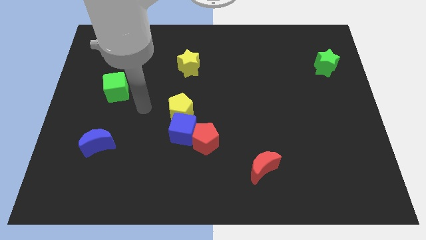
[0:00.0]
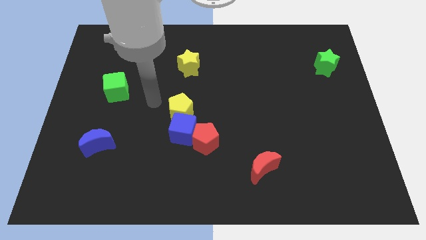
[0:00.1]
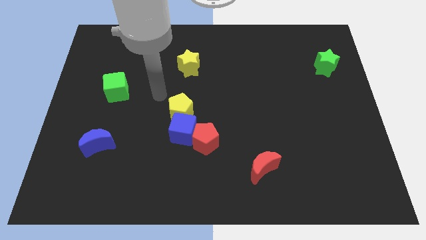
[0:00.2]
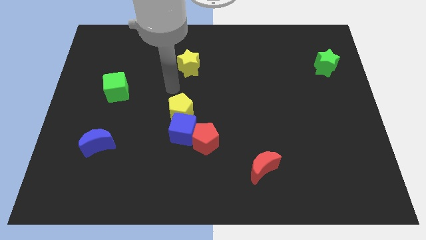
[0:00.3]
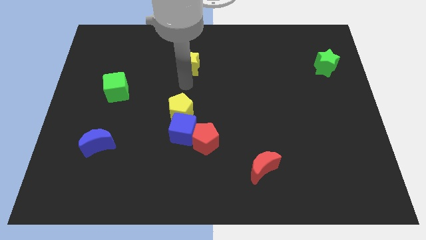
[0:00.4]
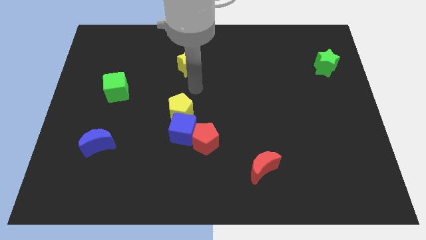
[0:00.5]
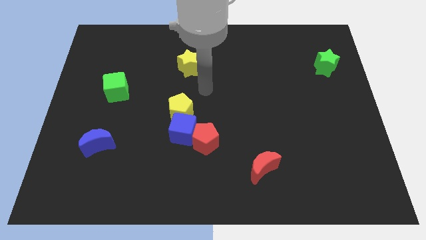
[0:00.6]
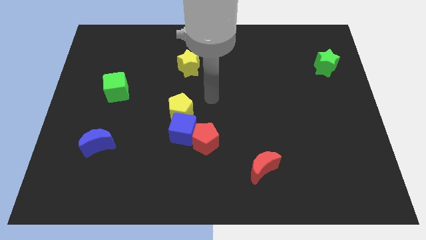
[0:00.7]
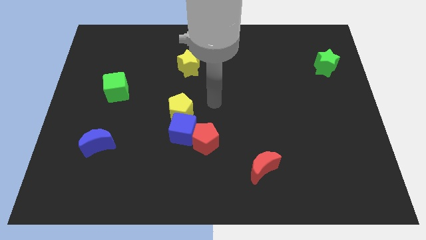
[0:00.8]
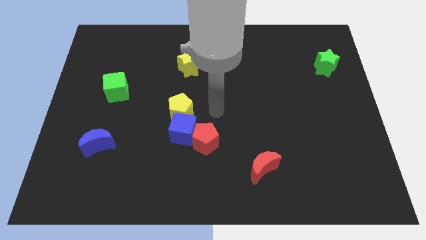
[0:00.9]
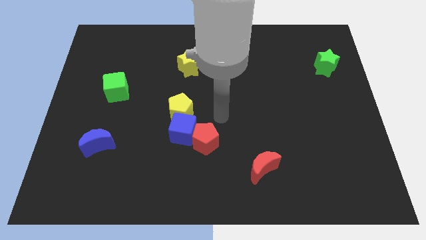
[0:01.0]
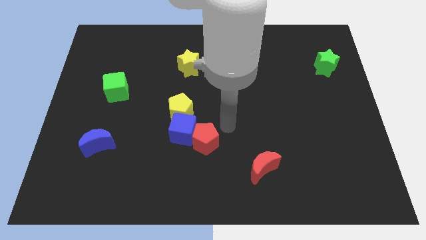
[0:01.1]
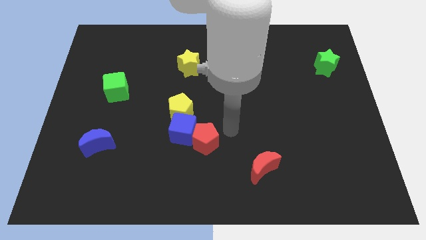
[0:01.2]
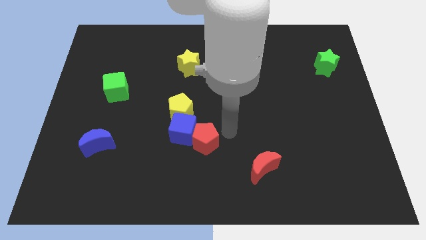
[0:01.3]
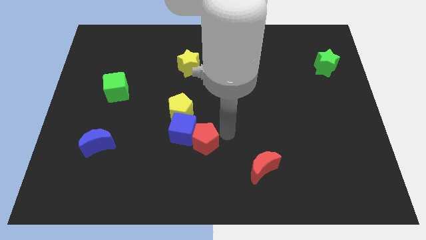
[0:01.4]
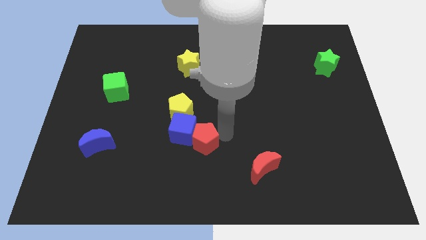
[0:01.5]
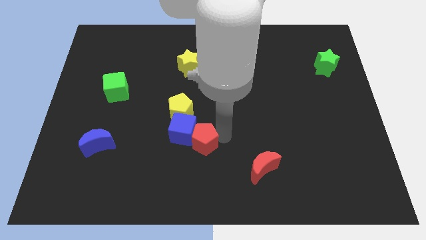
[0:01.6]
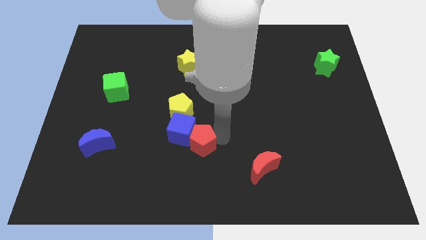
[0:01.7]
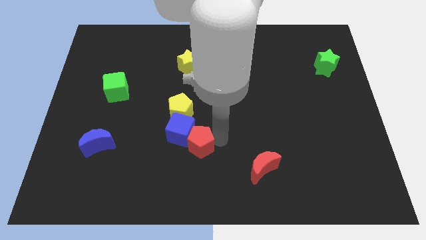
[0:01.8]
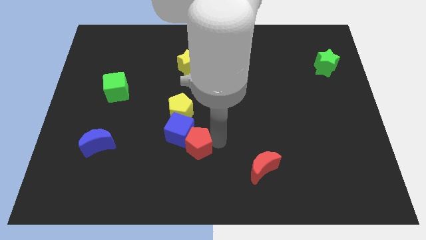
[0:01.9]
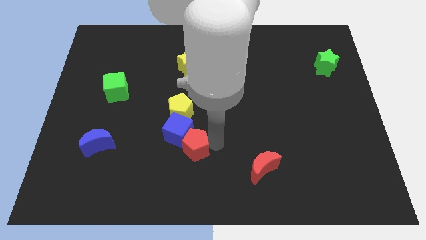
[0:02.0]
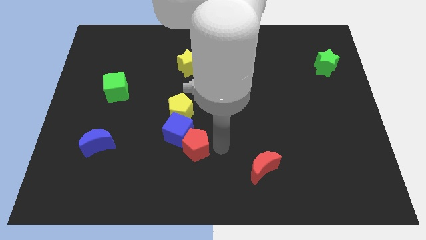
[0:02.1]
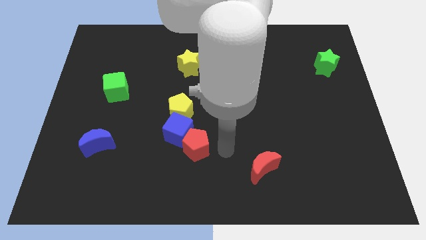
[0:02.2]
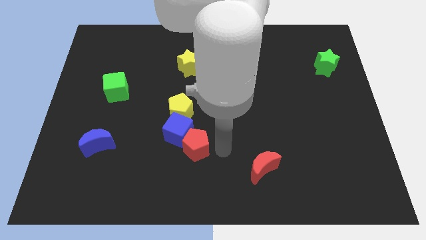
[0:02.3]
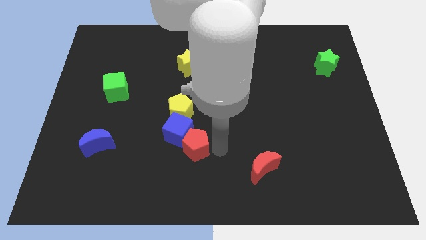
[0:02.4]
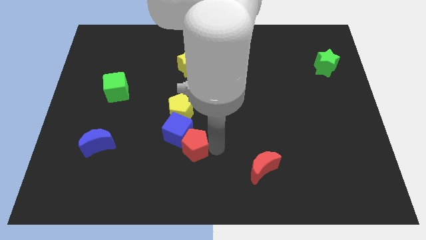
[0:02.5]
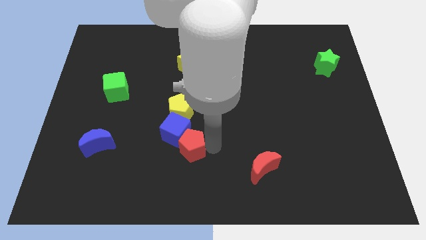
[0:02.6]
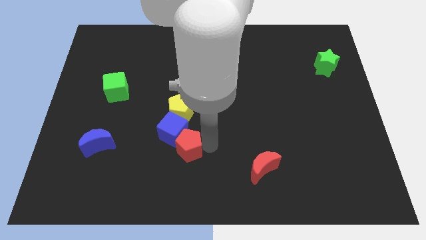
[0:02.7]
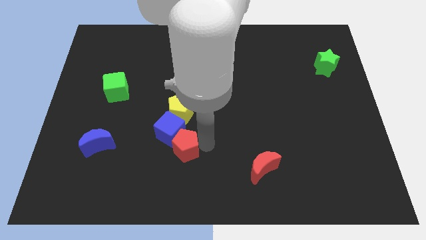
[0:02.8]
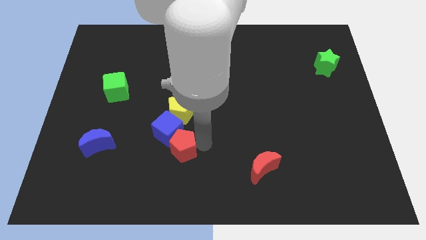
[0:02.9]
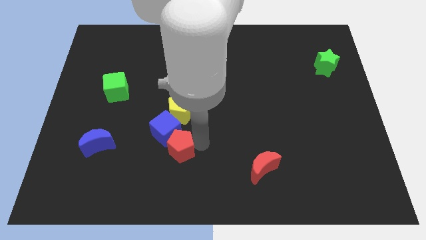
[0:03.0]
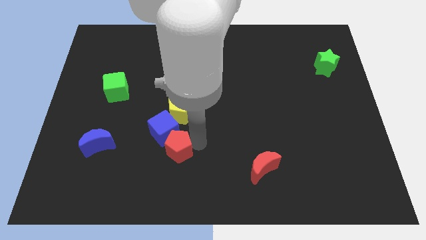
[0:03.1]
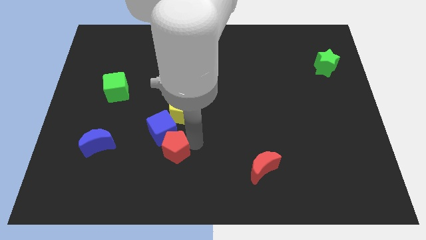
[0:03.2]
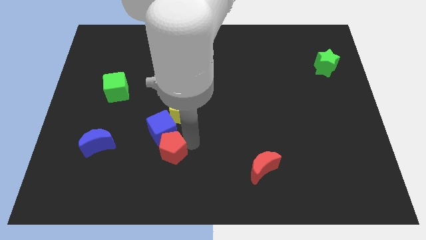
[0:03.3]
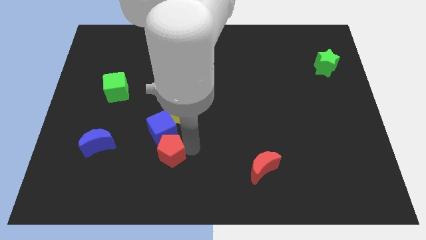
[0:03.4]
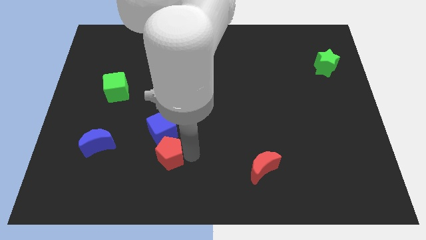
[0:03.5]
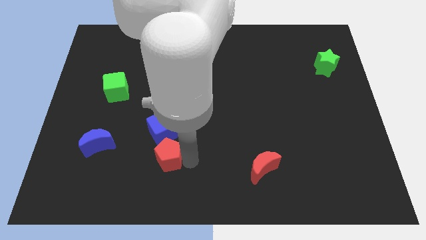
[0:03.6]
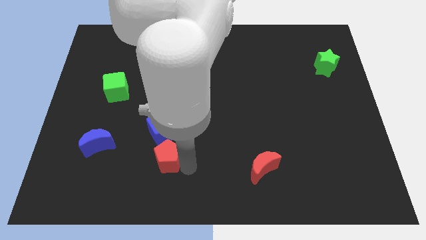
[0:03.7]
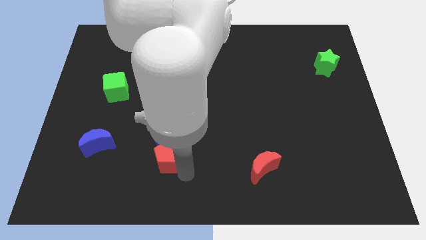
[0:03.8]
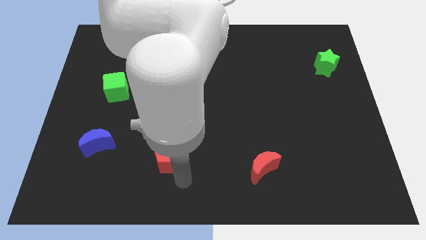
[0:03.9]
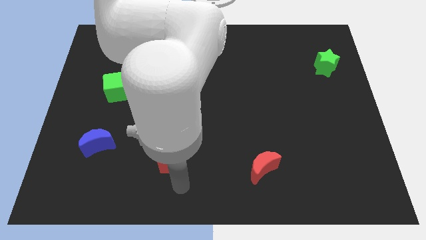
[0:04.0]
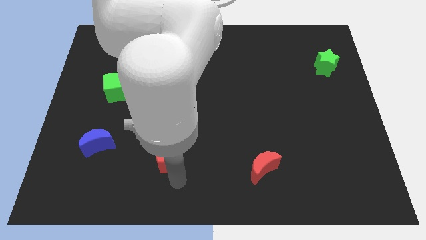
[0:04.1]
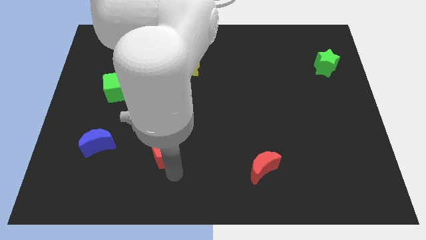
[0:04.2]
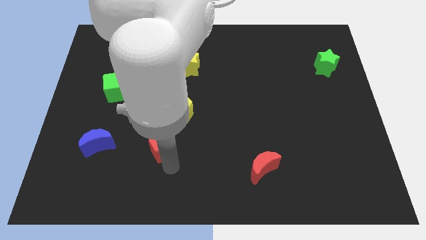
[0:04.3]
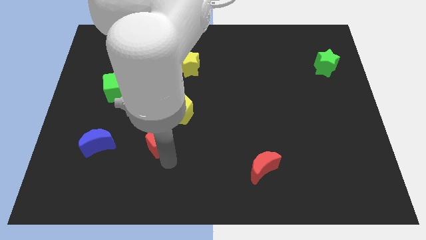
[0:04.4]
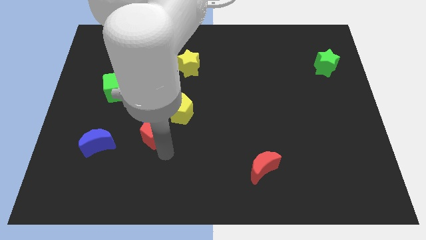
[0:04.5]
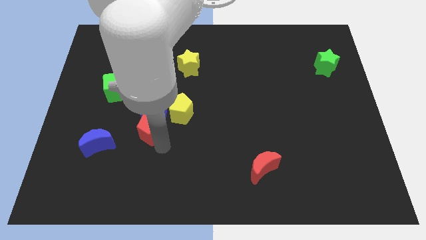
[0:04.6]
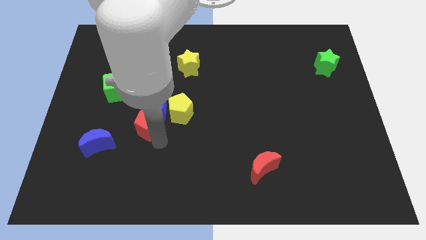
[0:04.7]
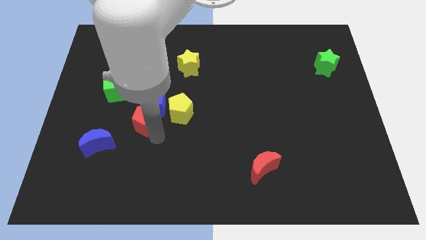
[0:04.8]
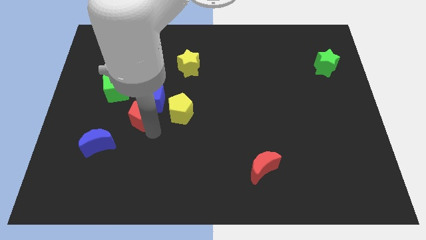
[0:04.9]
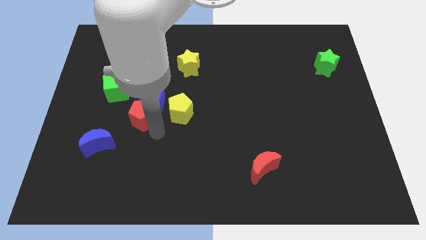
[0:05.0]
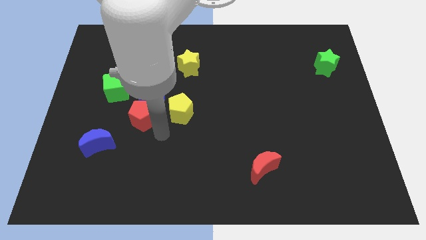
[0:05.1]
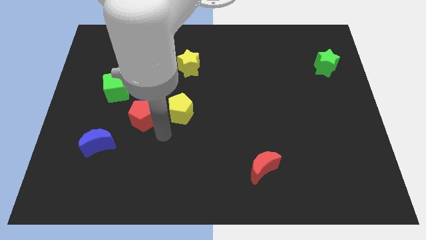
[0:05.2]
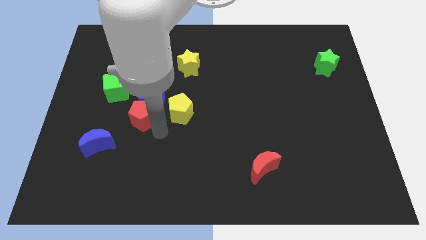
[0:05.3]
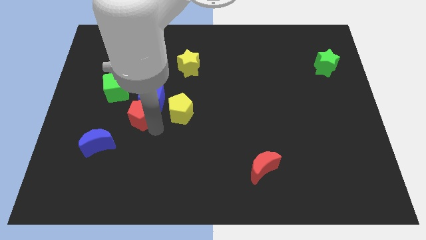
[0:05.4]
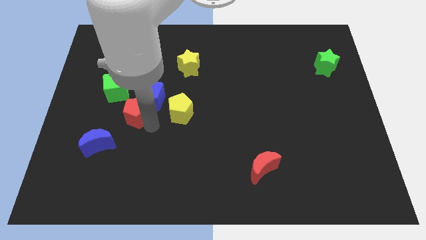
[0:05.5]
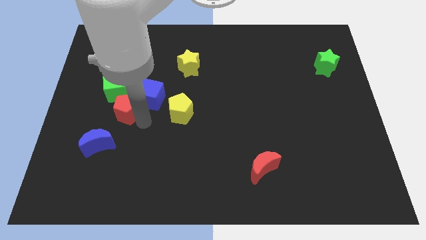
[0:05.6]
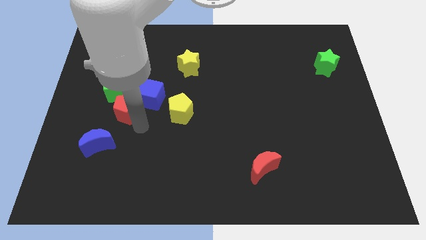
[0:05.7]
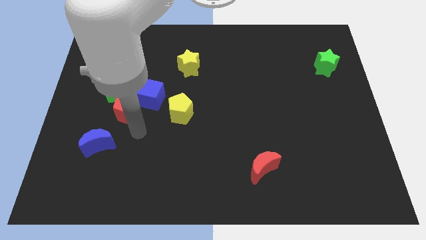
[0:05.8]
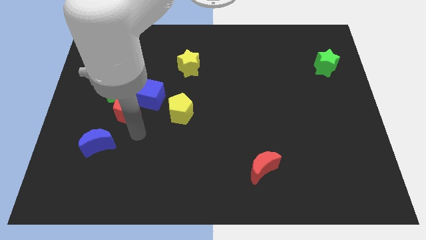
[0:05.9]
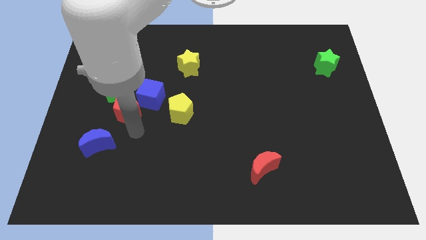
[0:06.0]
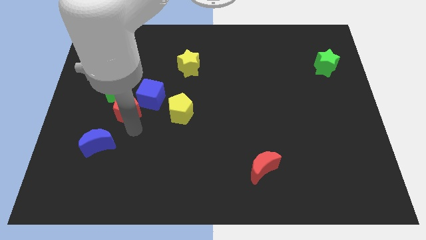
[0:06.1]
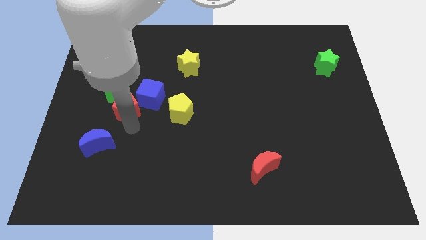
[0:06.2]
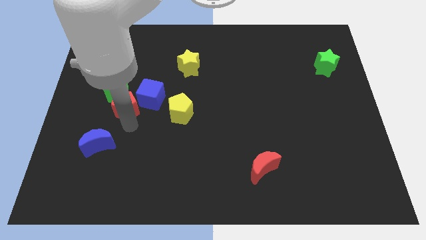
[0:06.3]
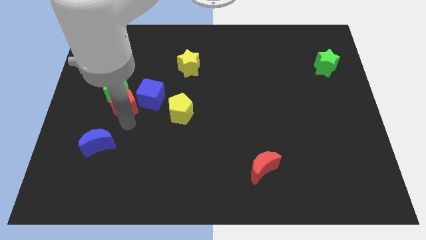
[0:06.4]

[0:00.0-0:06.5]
put the red pentagon next to the green cube

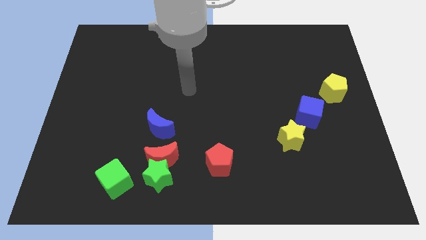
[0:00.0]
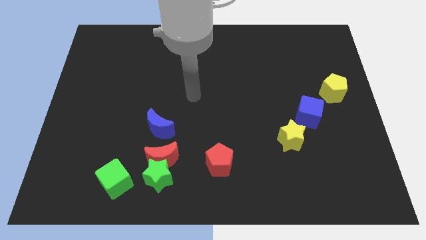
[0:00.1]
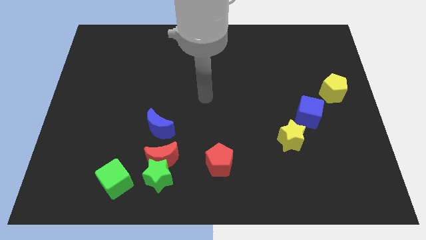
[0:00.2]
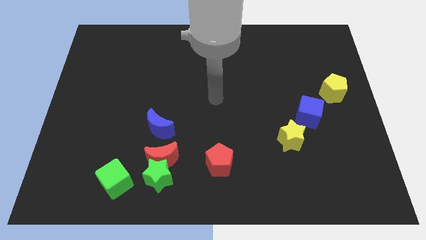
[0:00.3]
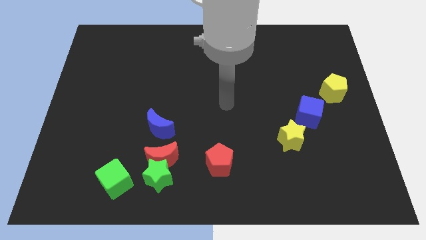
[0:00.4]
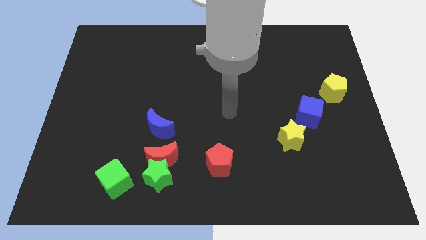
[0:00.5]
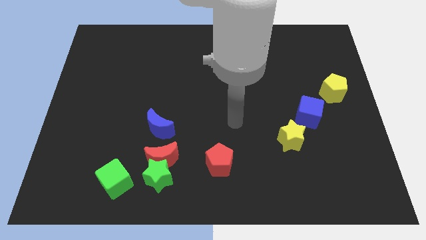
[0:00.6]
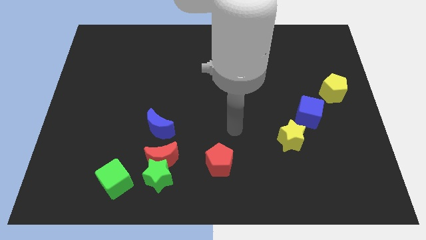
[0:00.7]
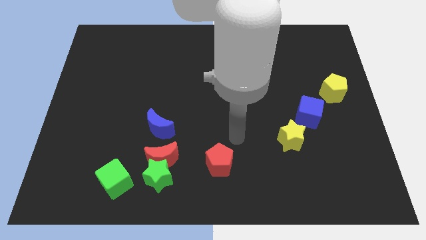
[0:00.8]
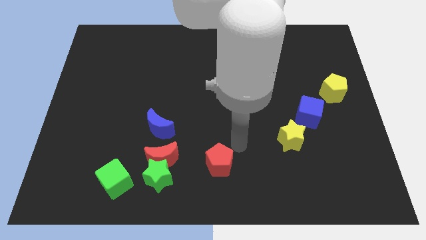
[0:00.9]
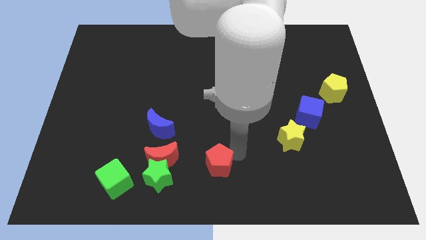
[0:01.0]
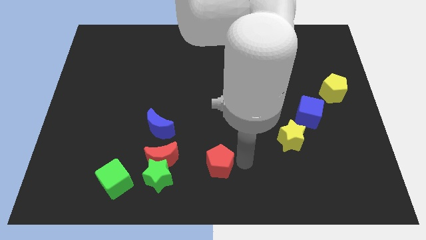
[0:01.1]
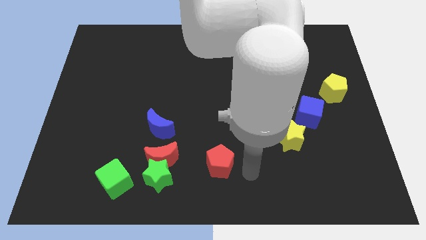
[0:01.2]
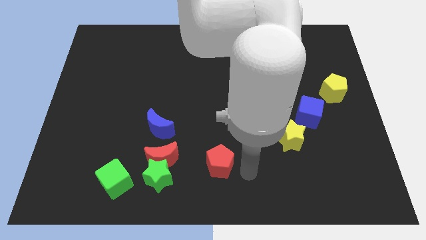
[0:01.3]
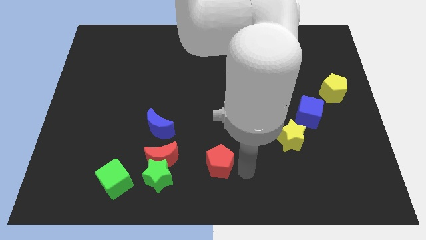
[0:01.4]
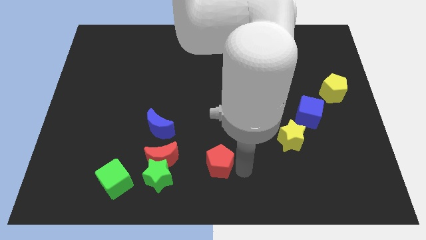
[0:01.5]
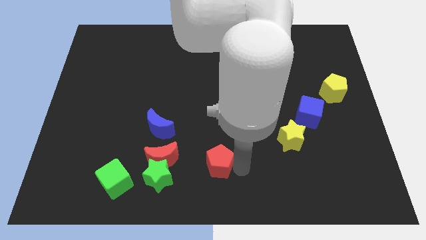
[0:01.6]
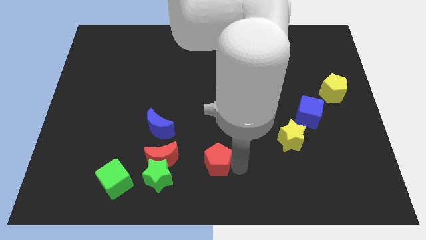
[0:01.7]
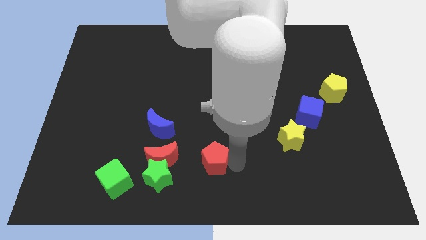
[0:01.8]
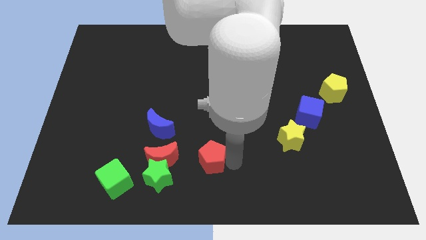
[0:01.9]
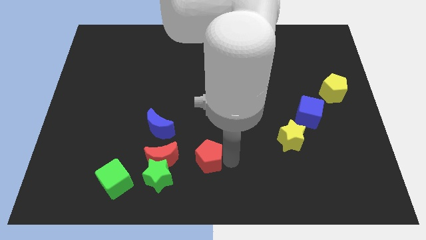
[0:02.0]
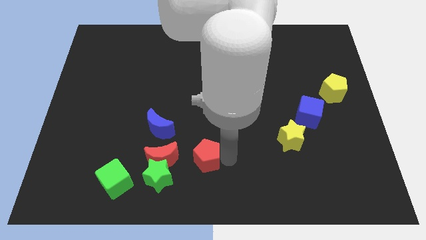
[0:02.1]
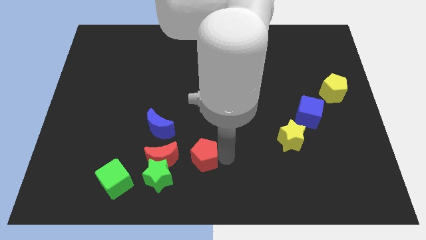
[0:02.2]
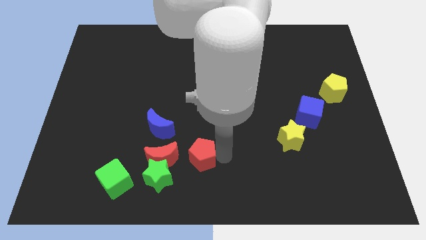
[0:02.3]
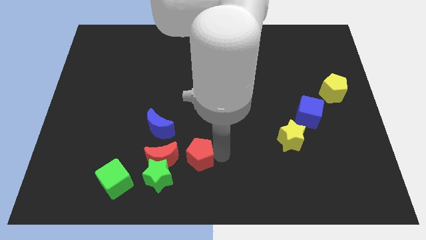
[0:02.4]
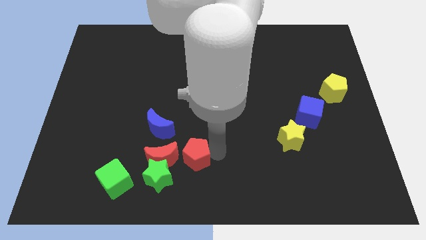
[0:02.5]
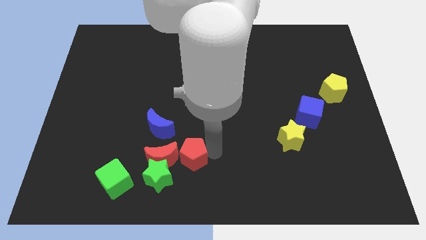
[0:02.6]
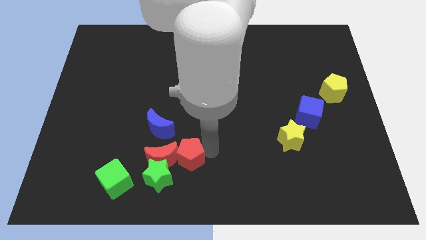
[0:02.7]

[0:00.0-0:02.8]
push the red pentagon to the red moon
